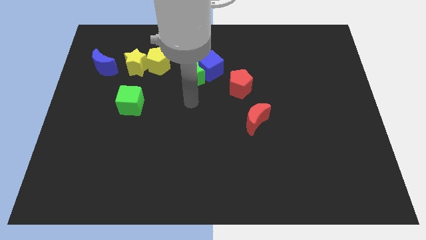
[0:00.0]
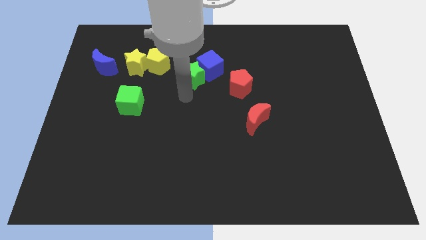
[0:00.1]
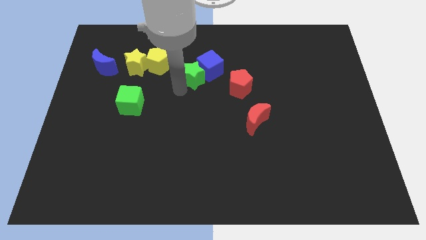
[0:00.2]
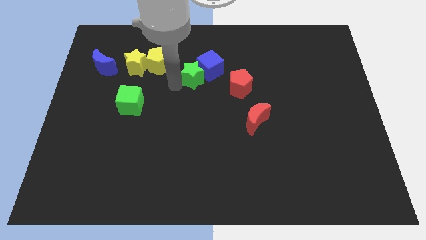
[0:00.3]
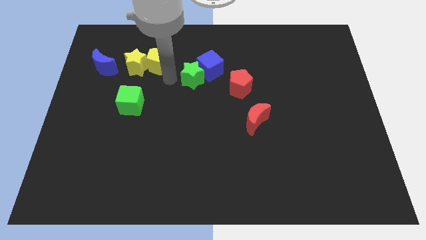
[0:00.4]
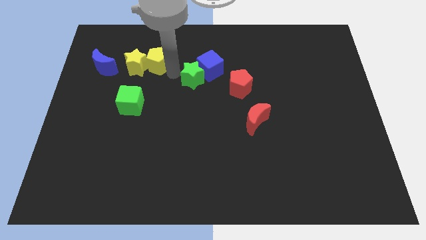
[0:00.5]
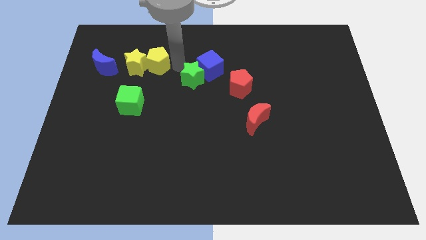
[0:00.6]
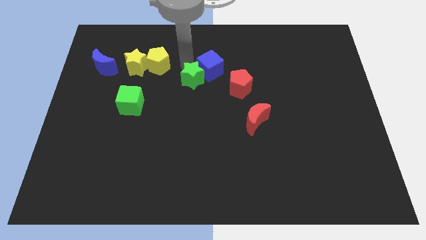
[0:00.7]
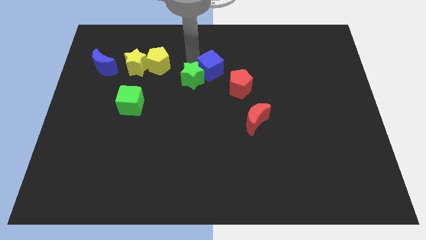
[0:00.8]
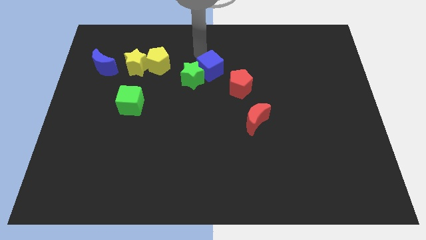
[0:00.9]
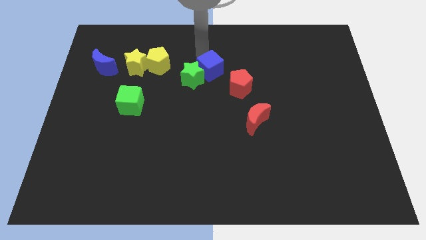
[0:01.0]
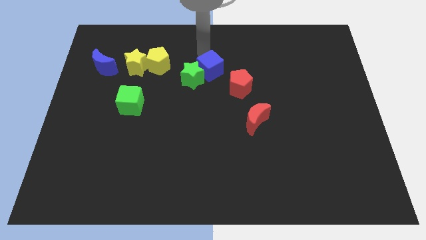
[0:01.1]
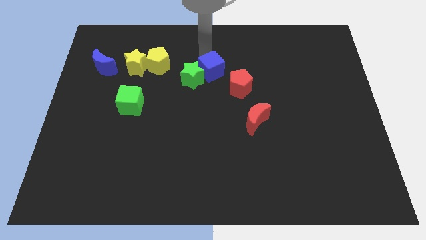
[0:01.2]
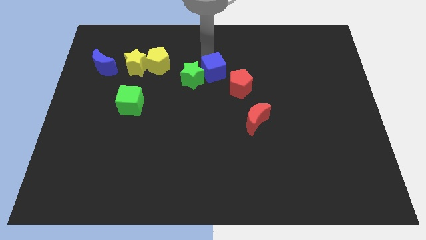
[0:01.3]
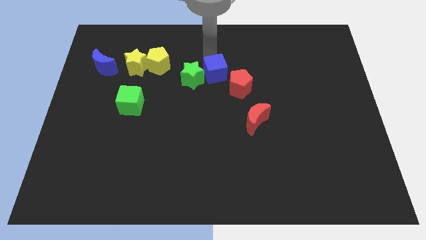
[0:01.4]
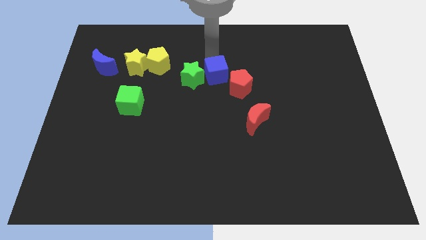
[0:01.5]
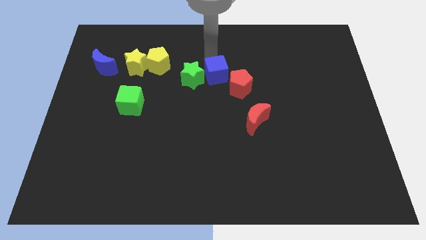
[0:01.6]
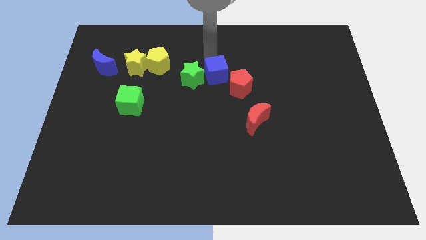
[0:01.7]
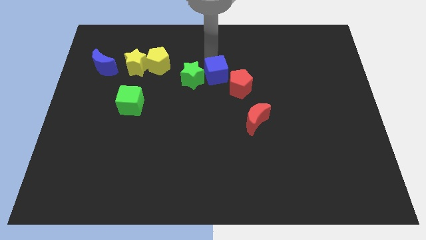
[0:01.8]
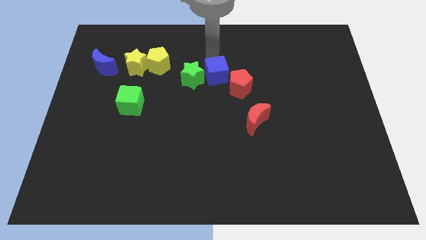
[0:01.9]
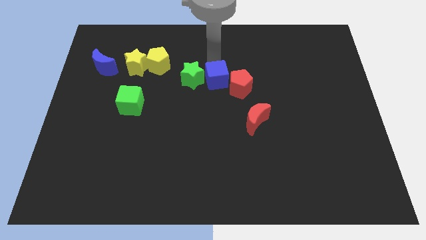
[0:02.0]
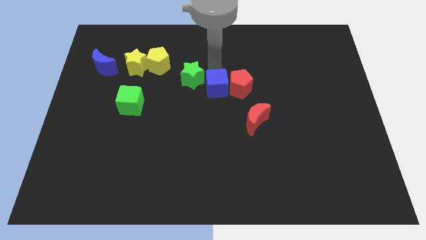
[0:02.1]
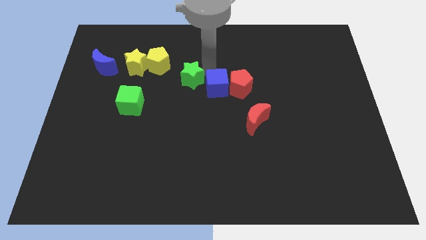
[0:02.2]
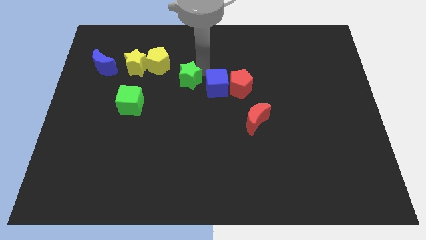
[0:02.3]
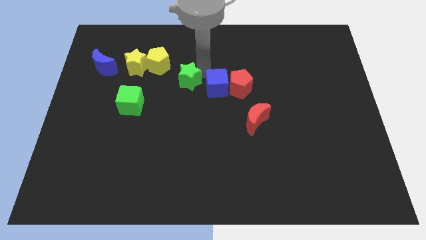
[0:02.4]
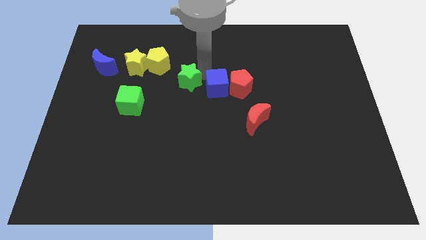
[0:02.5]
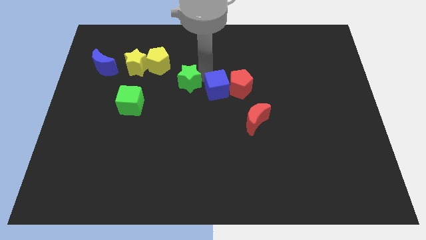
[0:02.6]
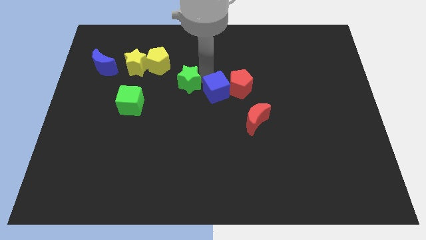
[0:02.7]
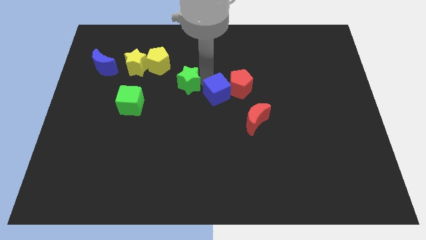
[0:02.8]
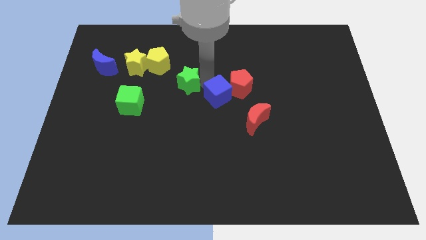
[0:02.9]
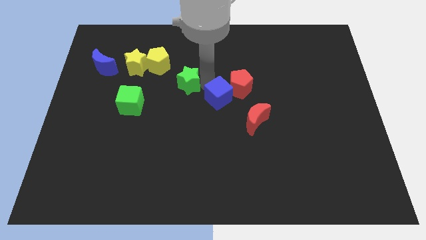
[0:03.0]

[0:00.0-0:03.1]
slide the blue cube a little bit downwards and then to the right

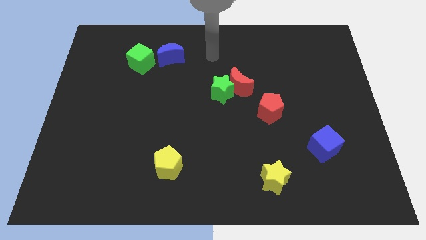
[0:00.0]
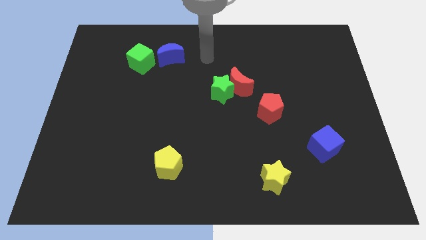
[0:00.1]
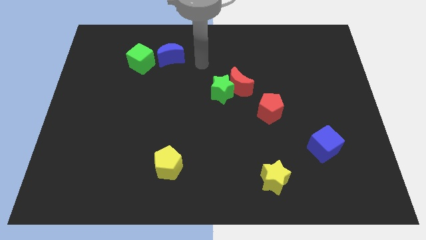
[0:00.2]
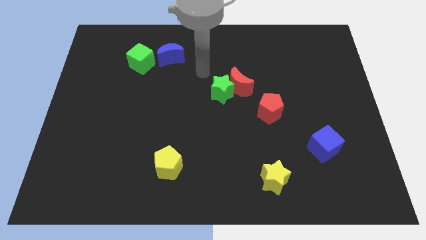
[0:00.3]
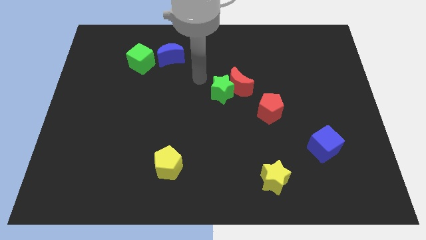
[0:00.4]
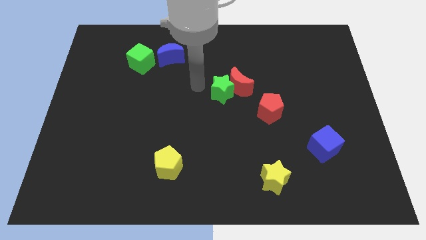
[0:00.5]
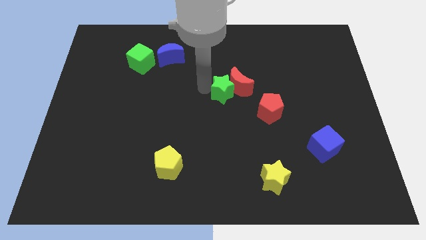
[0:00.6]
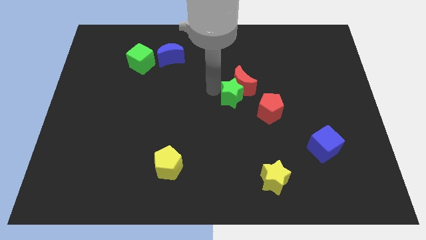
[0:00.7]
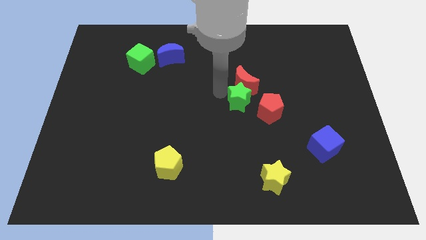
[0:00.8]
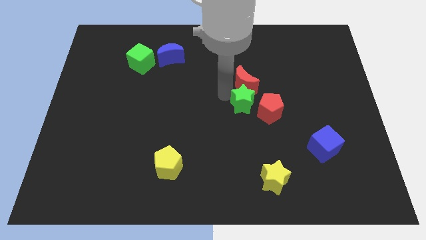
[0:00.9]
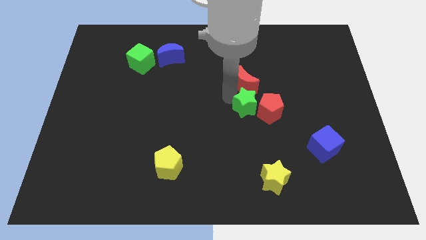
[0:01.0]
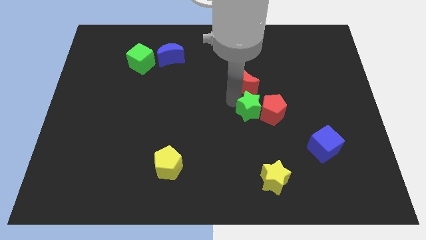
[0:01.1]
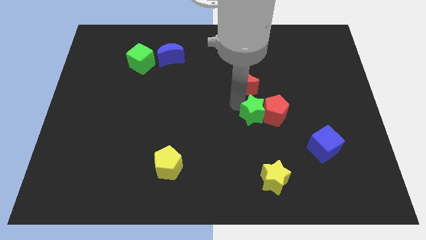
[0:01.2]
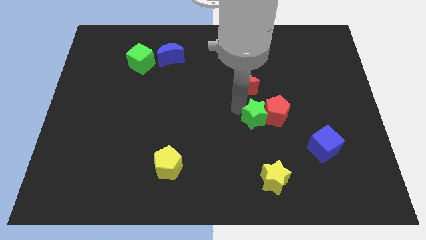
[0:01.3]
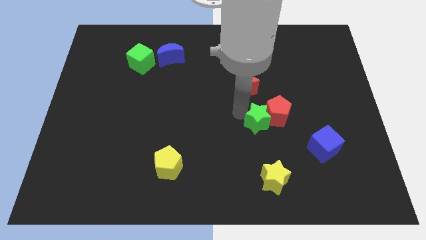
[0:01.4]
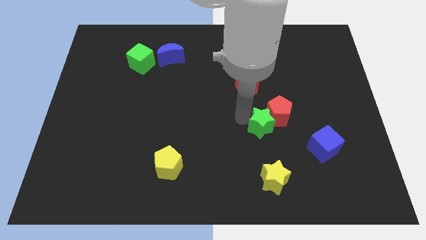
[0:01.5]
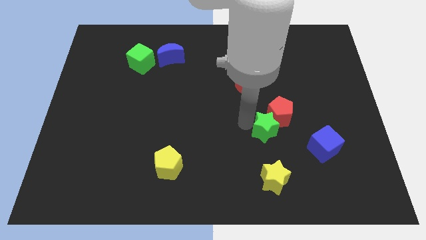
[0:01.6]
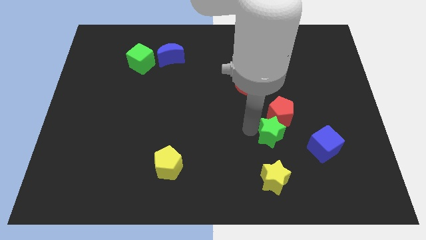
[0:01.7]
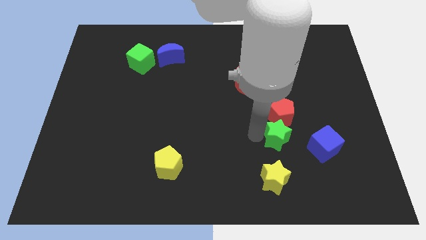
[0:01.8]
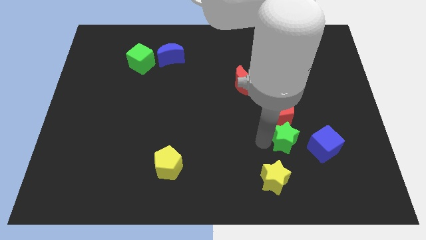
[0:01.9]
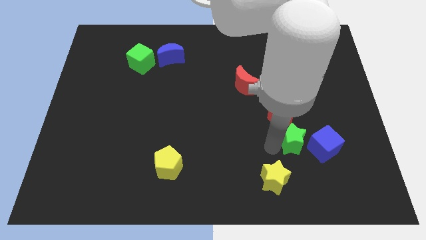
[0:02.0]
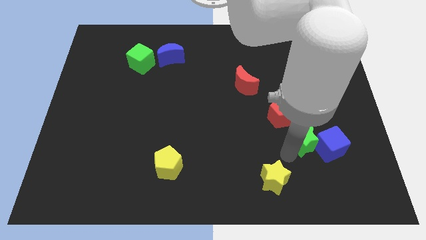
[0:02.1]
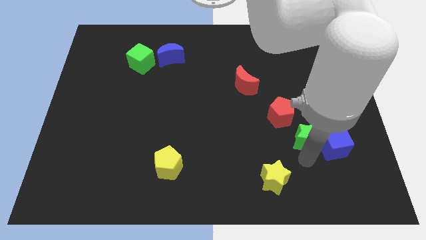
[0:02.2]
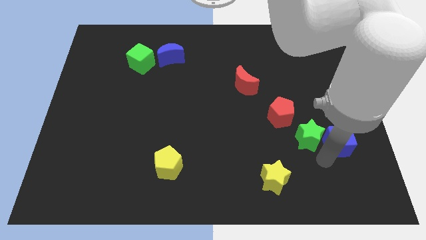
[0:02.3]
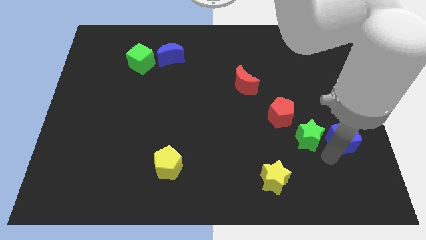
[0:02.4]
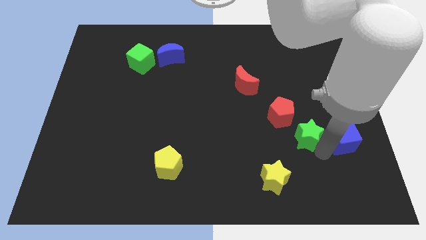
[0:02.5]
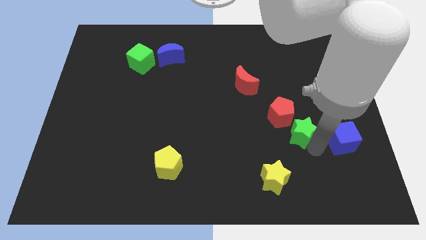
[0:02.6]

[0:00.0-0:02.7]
slightly slide the green star right

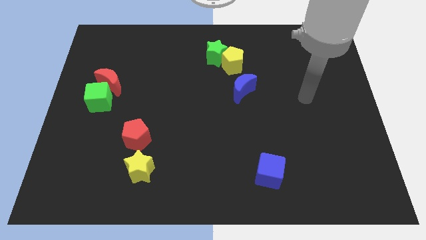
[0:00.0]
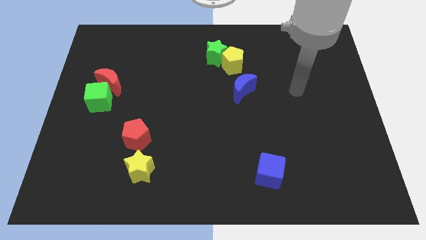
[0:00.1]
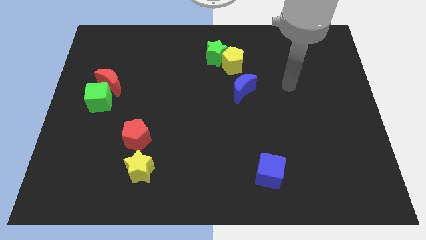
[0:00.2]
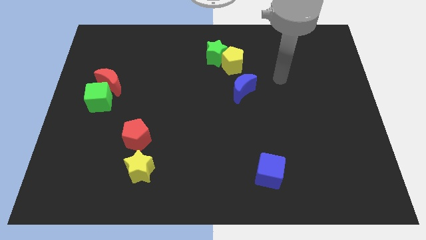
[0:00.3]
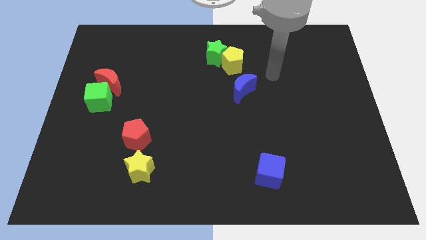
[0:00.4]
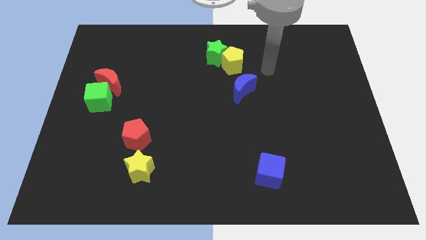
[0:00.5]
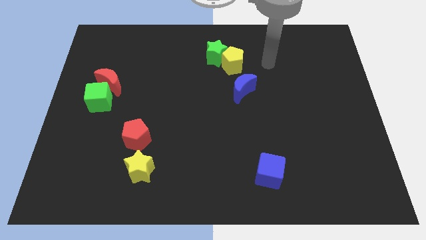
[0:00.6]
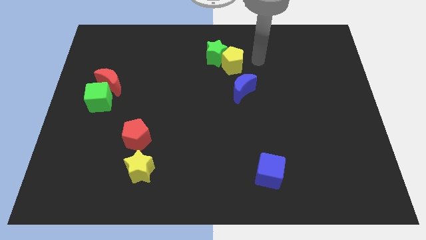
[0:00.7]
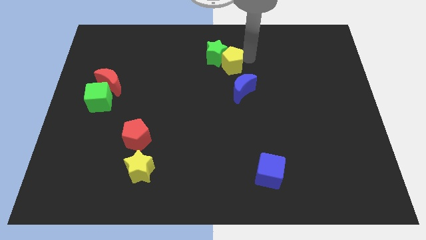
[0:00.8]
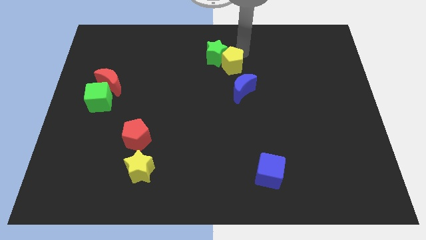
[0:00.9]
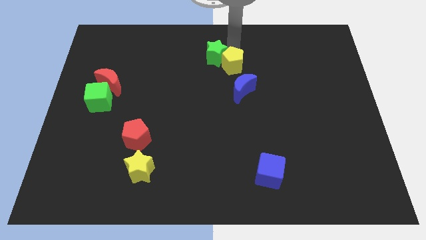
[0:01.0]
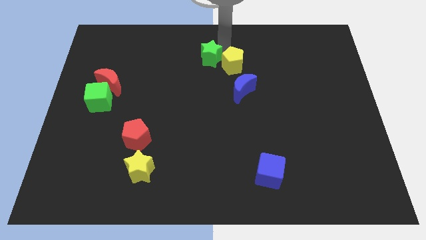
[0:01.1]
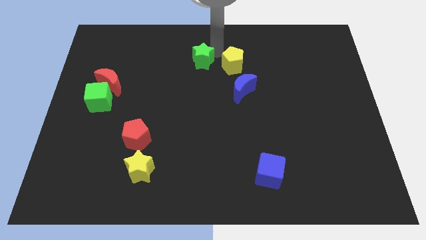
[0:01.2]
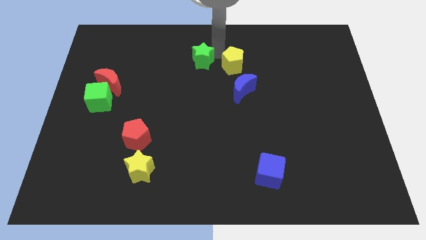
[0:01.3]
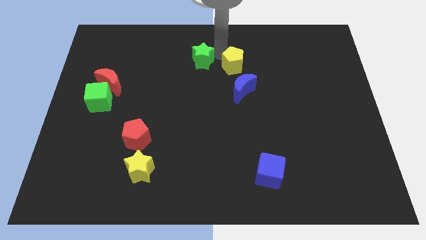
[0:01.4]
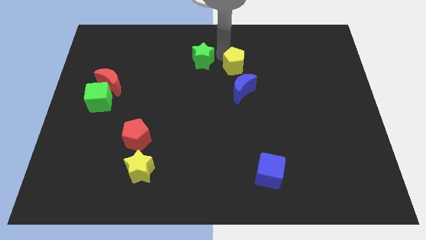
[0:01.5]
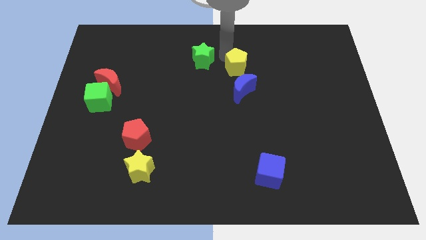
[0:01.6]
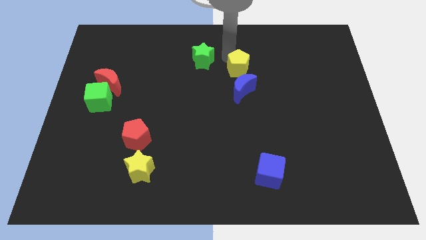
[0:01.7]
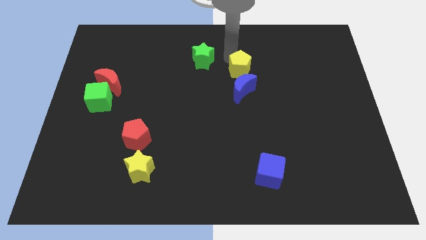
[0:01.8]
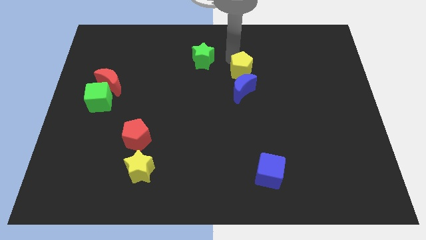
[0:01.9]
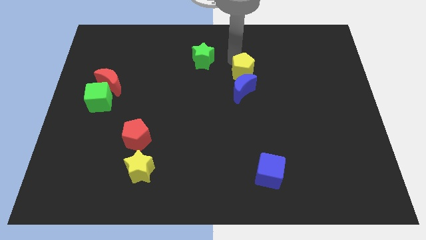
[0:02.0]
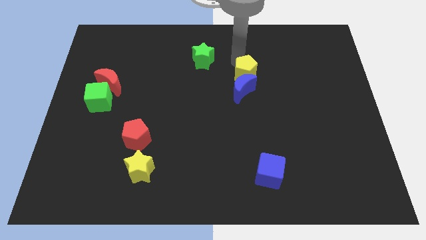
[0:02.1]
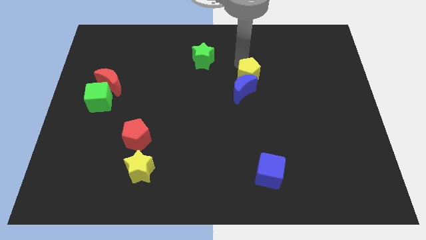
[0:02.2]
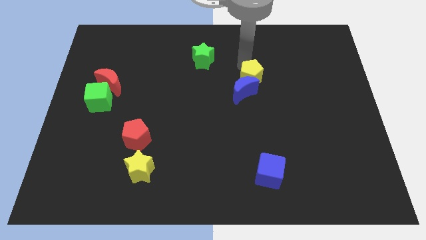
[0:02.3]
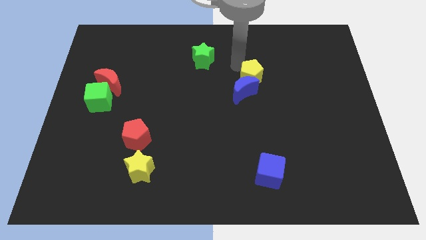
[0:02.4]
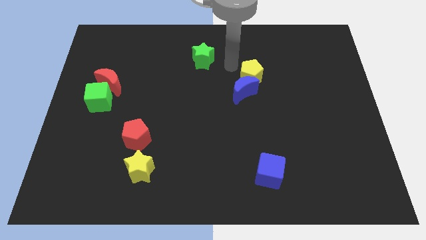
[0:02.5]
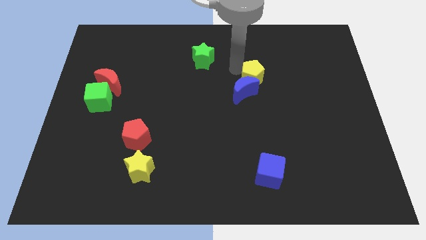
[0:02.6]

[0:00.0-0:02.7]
slide the yellow pentagon a bit downwards and then to the right
